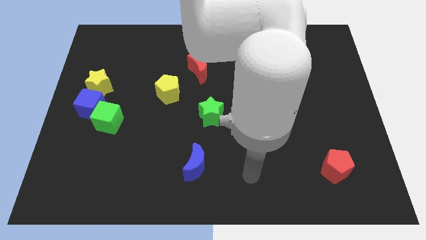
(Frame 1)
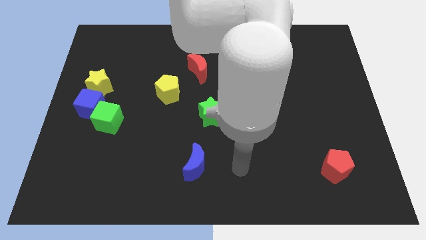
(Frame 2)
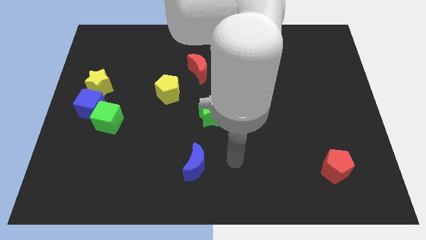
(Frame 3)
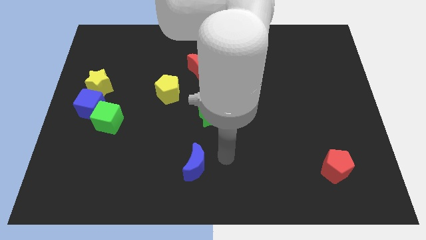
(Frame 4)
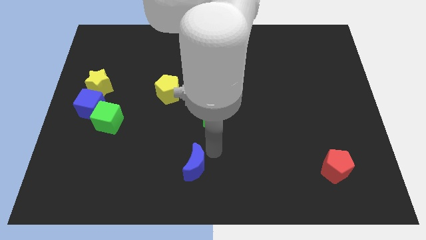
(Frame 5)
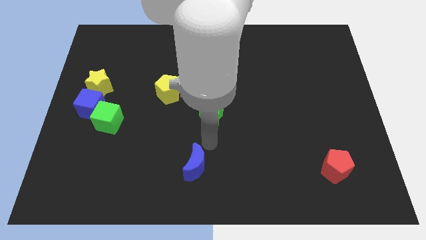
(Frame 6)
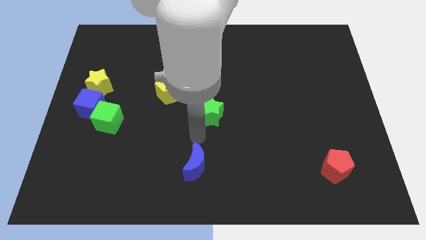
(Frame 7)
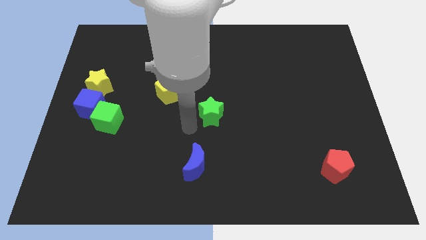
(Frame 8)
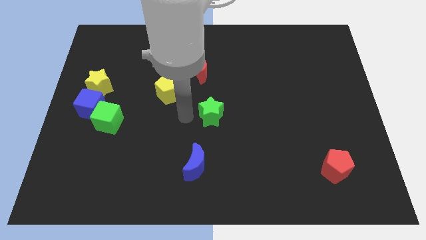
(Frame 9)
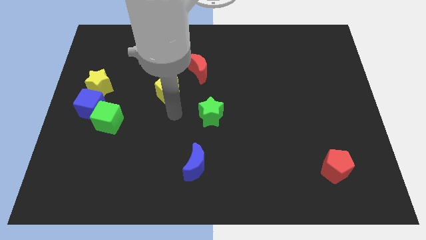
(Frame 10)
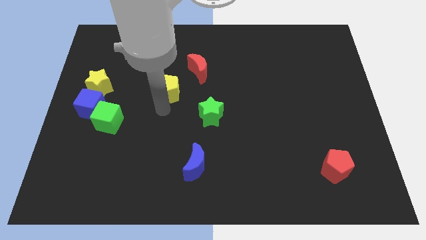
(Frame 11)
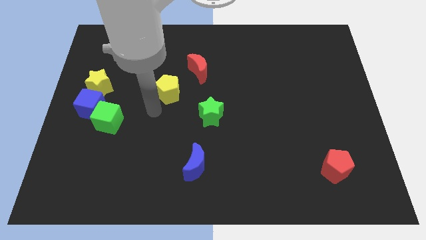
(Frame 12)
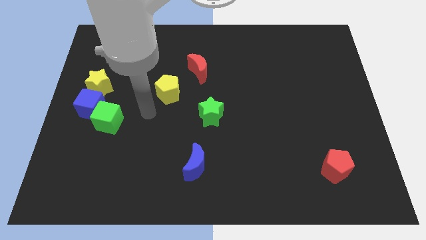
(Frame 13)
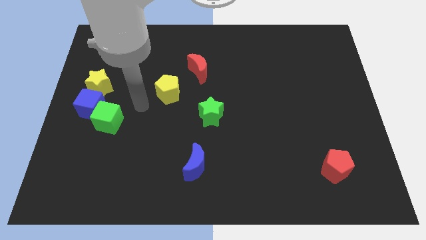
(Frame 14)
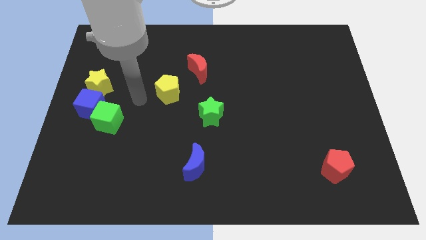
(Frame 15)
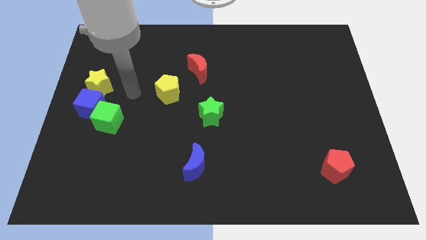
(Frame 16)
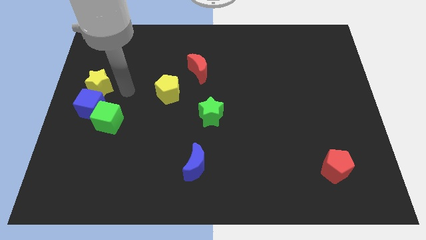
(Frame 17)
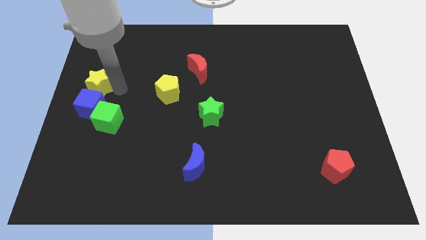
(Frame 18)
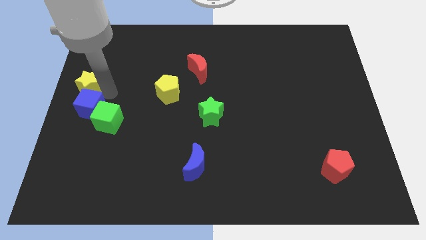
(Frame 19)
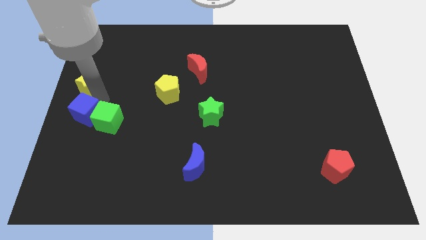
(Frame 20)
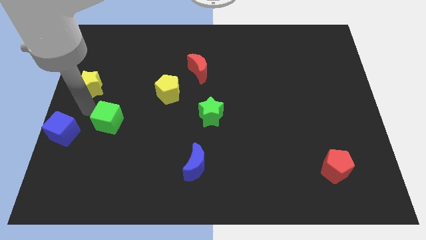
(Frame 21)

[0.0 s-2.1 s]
move the green cube away from the blue cube

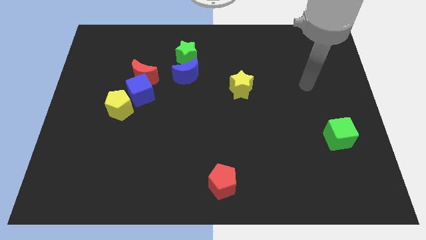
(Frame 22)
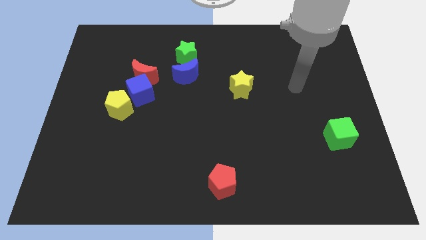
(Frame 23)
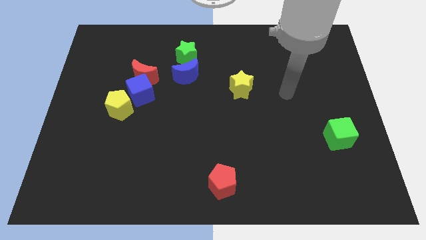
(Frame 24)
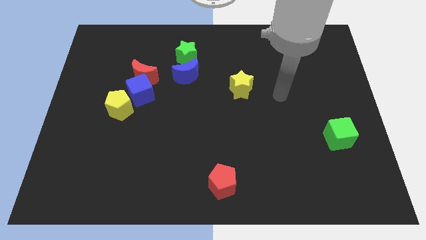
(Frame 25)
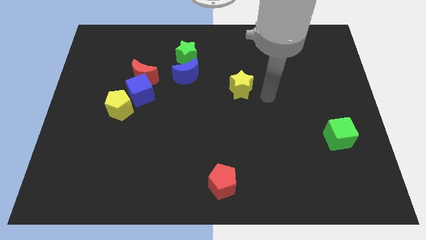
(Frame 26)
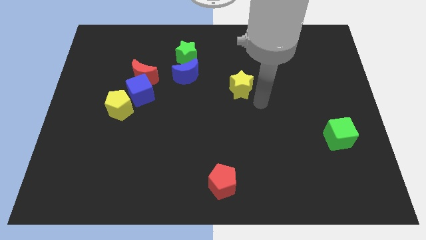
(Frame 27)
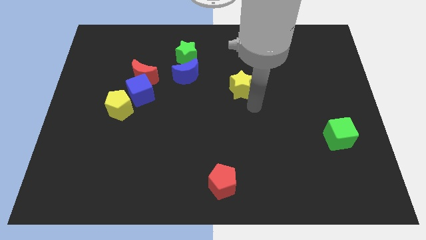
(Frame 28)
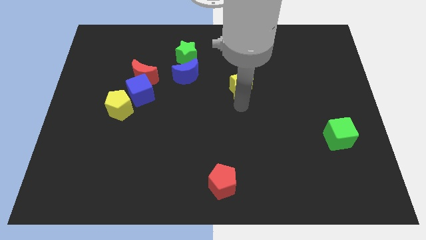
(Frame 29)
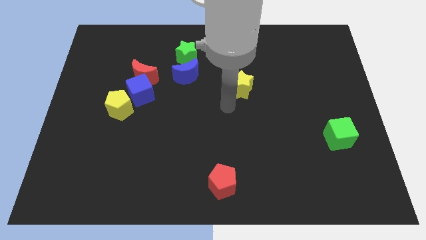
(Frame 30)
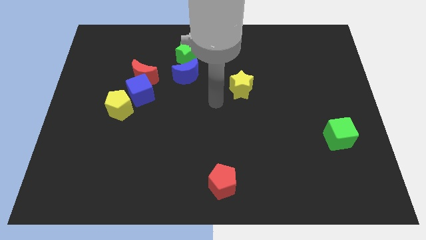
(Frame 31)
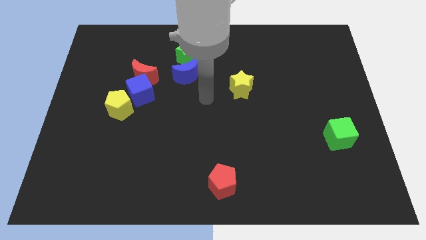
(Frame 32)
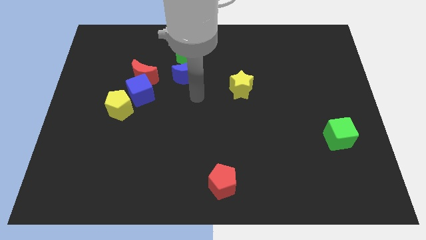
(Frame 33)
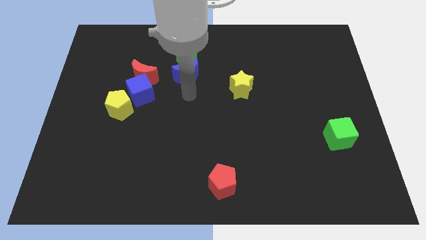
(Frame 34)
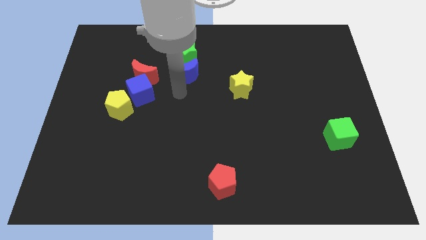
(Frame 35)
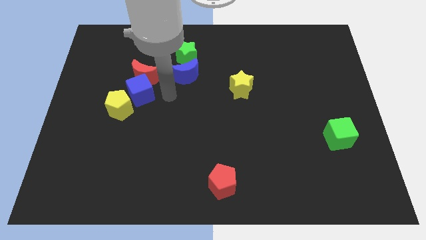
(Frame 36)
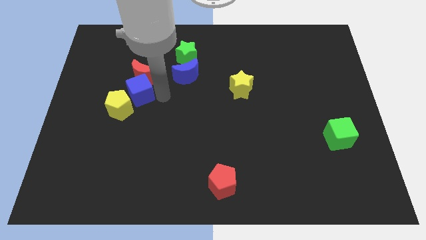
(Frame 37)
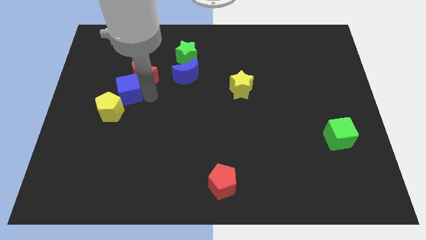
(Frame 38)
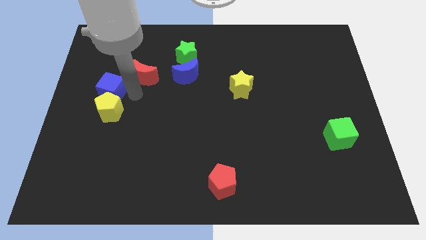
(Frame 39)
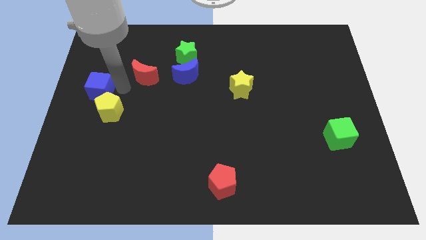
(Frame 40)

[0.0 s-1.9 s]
move the red moon away from the blue cube

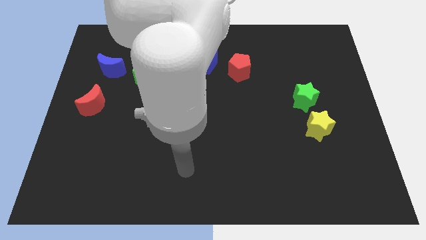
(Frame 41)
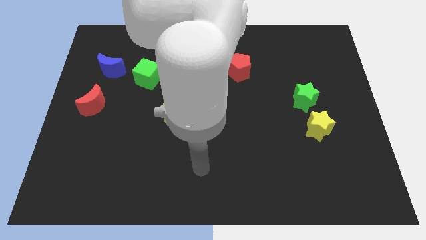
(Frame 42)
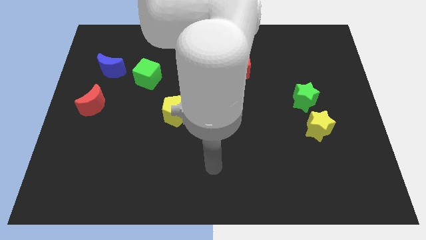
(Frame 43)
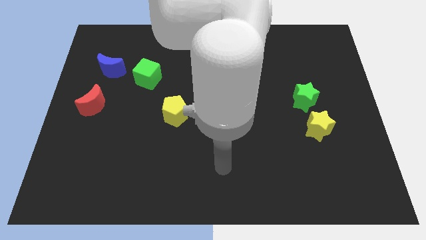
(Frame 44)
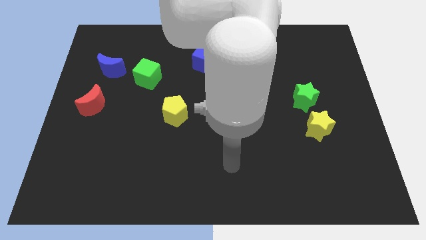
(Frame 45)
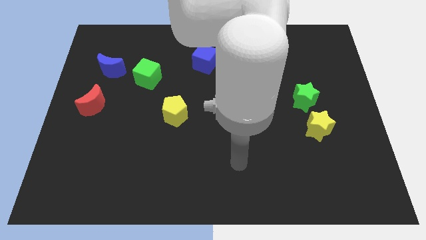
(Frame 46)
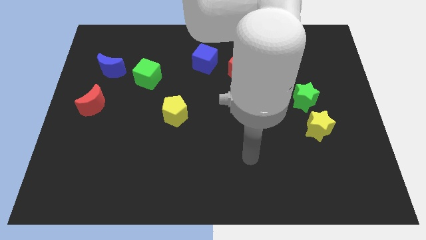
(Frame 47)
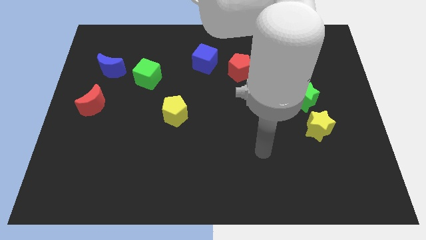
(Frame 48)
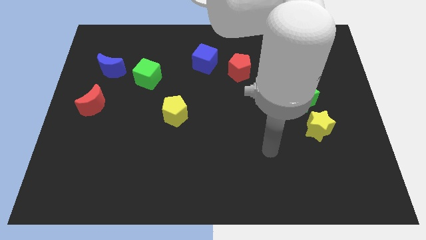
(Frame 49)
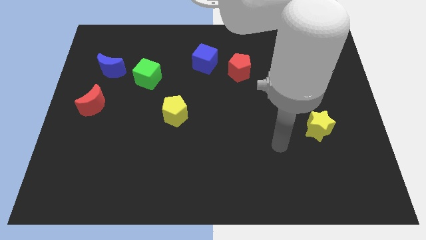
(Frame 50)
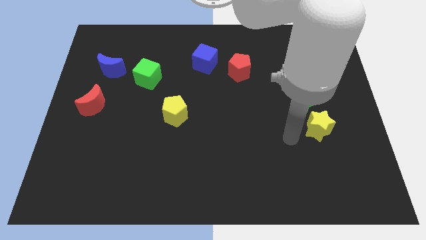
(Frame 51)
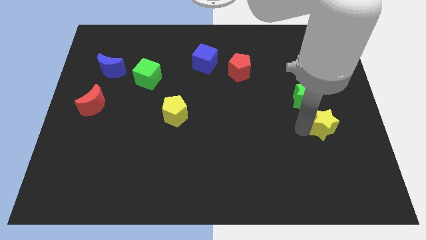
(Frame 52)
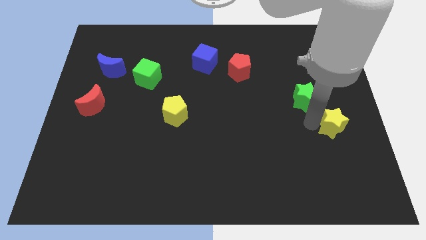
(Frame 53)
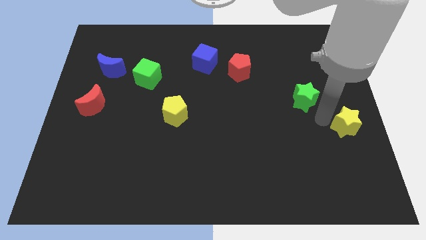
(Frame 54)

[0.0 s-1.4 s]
move the green star away from the yellow star

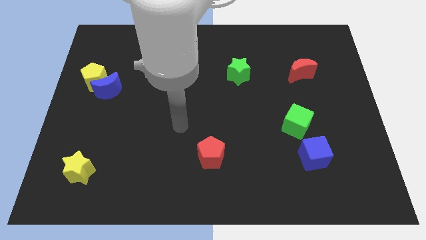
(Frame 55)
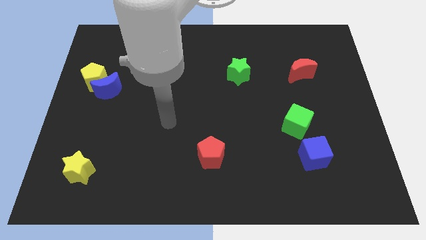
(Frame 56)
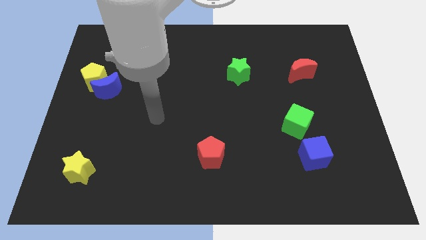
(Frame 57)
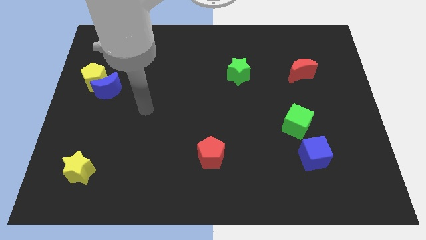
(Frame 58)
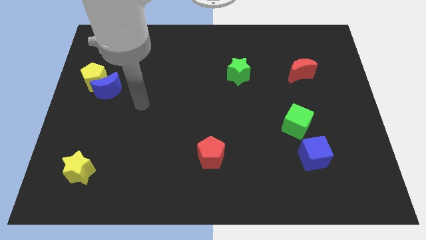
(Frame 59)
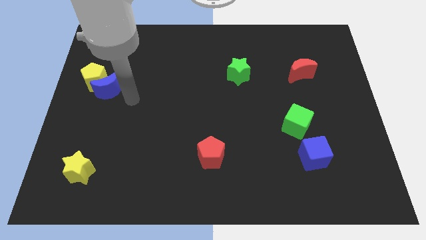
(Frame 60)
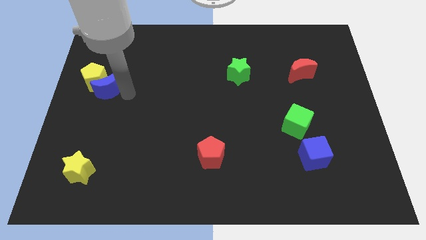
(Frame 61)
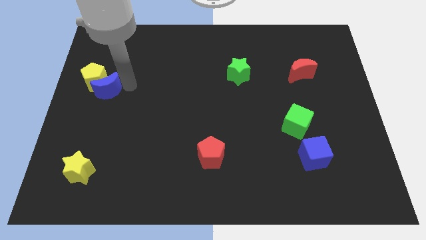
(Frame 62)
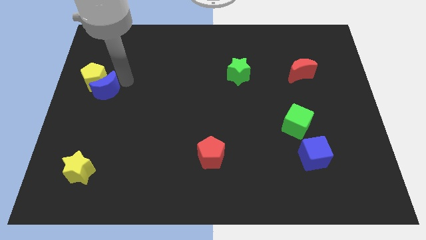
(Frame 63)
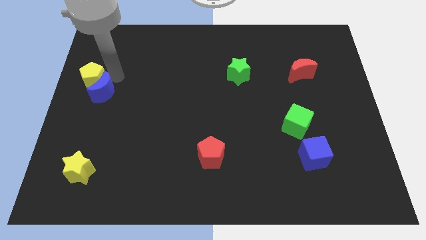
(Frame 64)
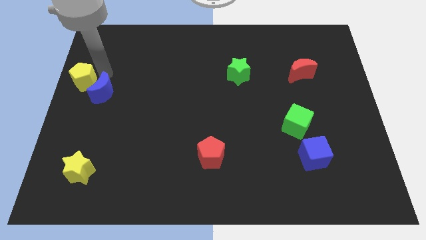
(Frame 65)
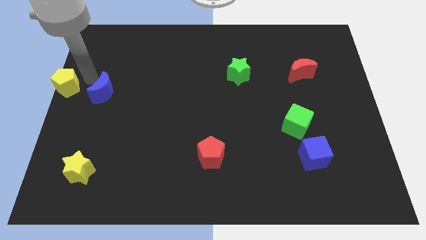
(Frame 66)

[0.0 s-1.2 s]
pull the blue moon apart from the yellow pentagon

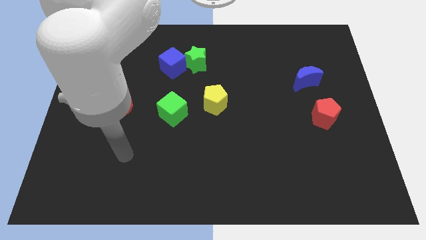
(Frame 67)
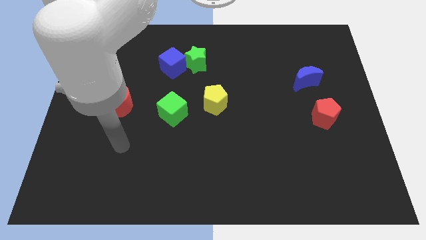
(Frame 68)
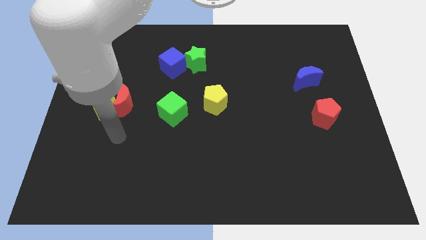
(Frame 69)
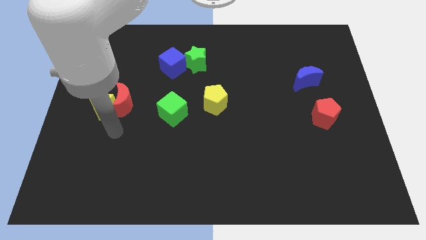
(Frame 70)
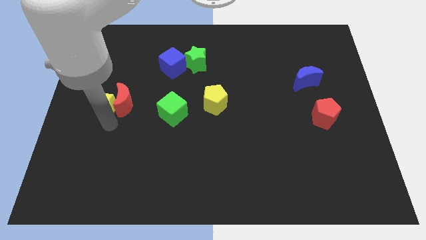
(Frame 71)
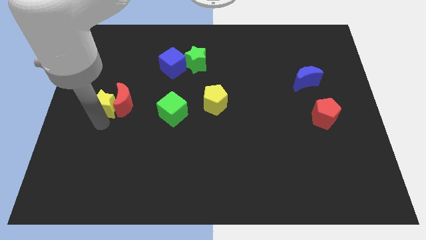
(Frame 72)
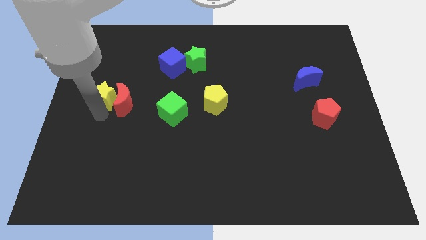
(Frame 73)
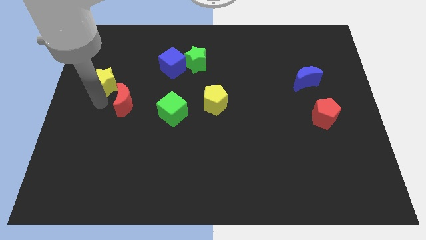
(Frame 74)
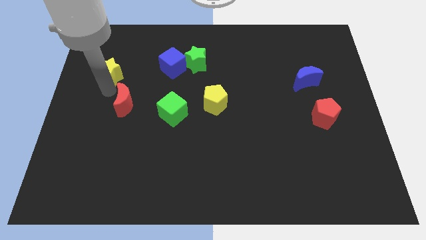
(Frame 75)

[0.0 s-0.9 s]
move the red moon away from the yellow star

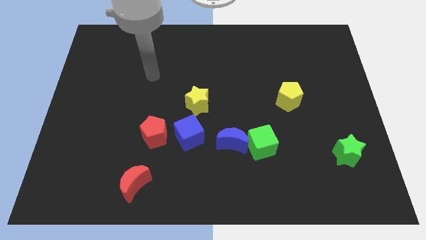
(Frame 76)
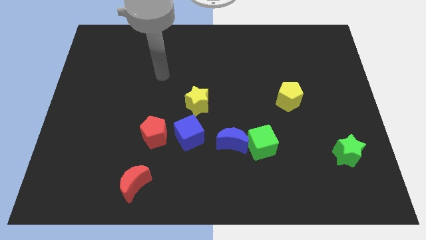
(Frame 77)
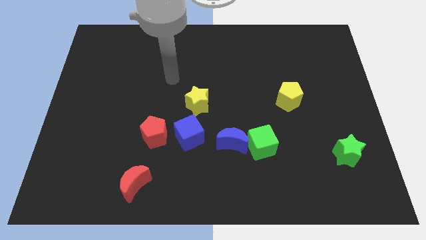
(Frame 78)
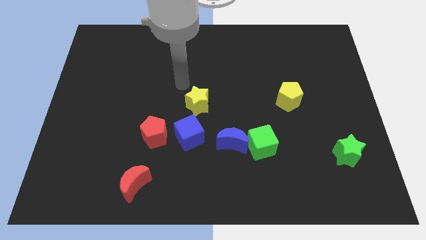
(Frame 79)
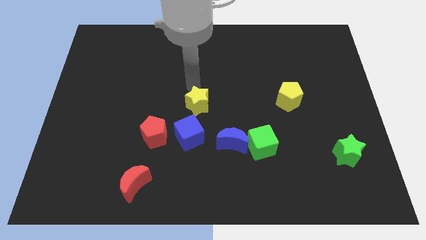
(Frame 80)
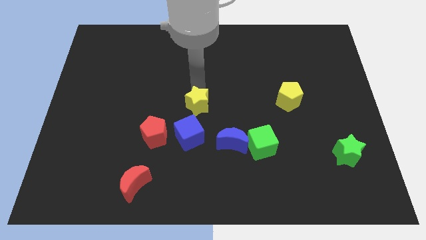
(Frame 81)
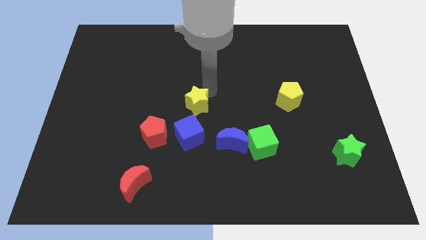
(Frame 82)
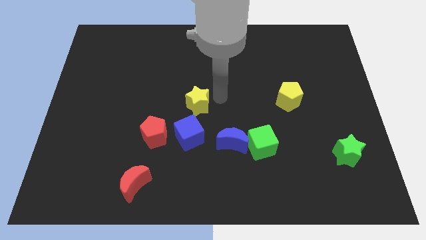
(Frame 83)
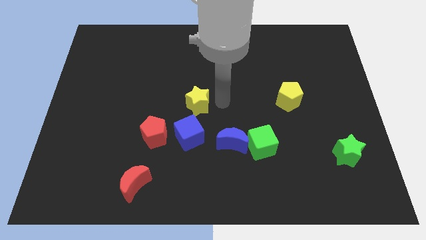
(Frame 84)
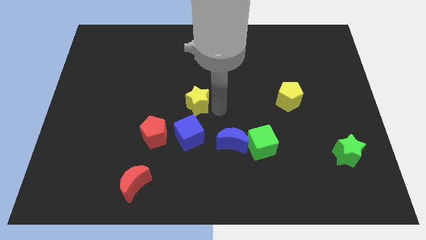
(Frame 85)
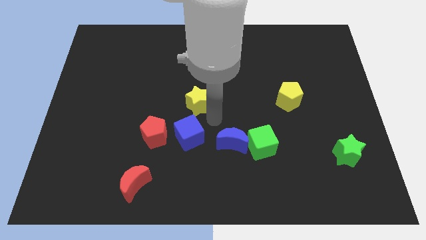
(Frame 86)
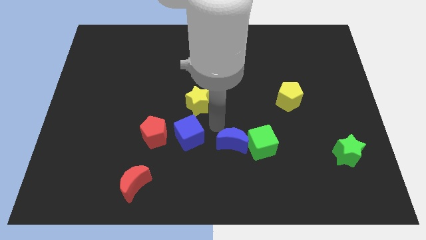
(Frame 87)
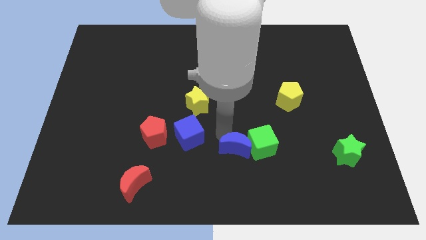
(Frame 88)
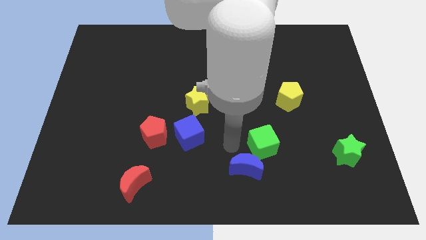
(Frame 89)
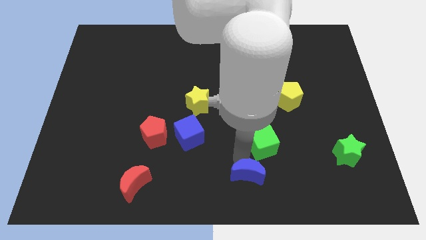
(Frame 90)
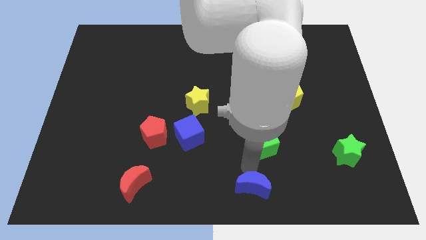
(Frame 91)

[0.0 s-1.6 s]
move the green cube away from the blue moon

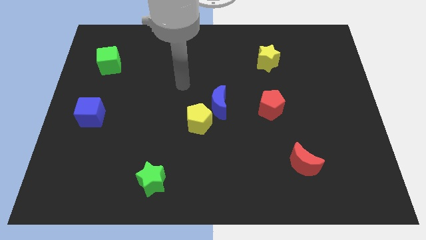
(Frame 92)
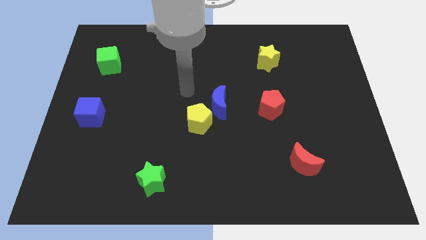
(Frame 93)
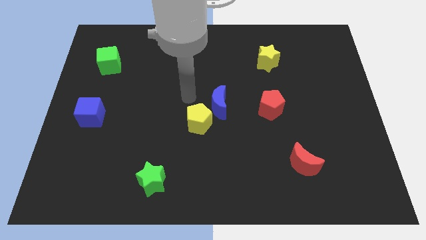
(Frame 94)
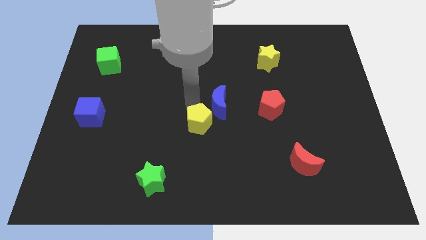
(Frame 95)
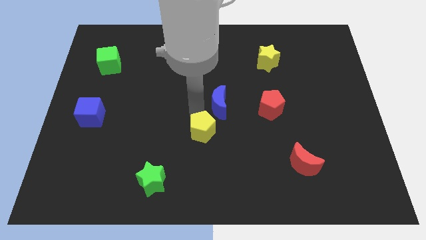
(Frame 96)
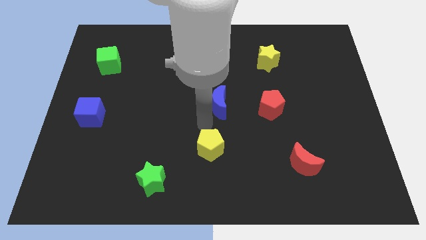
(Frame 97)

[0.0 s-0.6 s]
separate the blue moon from the yellow pentagon
